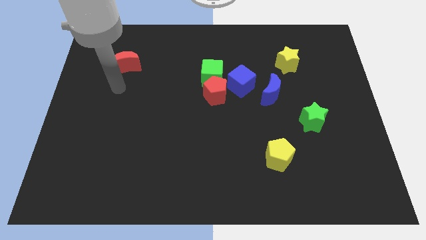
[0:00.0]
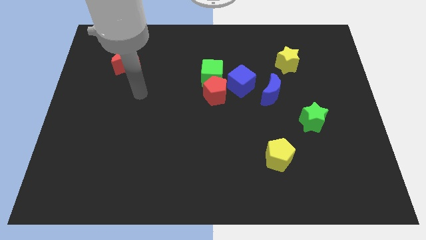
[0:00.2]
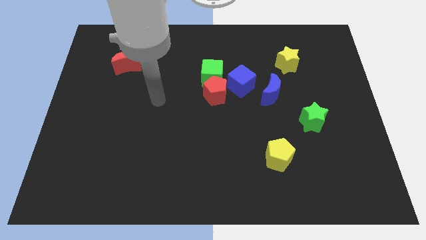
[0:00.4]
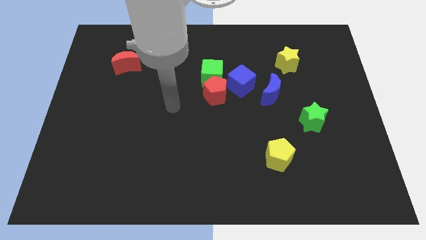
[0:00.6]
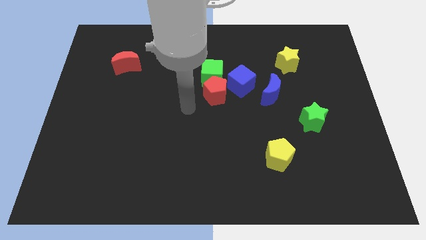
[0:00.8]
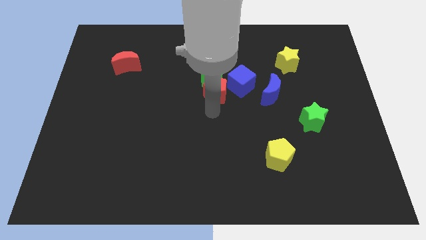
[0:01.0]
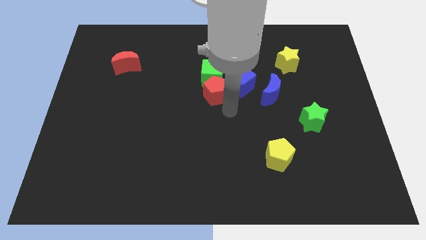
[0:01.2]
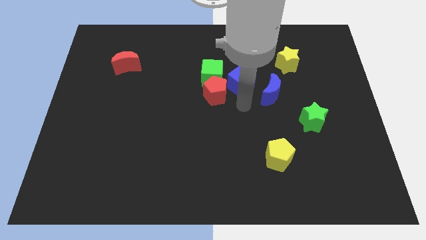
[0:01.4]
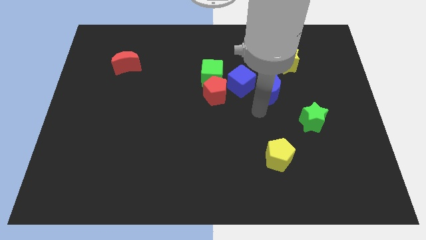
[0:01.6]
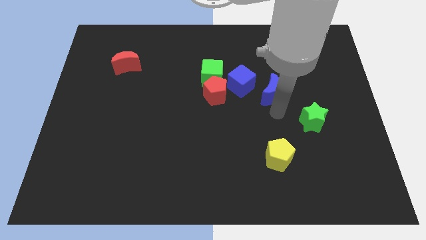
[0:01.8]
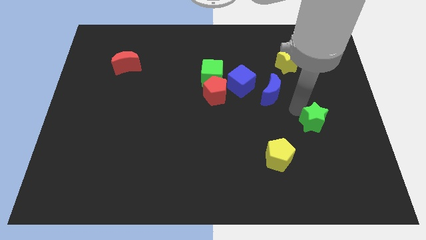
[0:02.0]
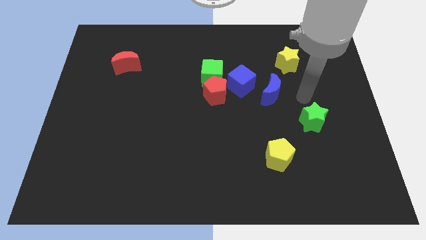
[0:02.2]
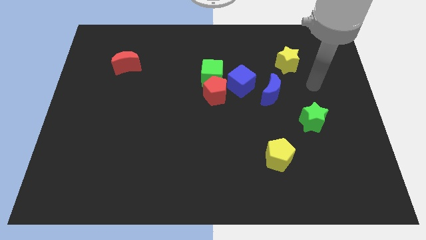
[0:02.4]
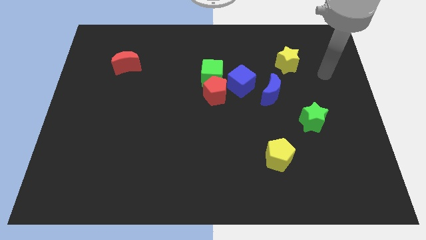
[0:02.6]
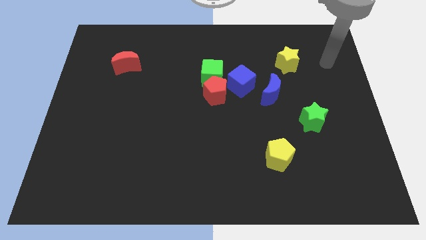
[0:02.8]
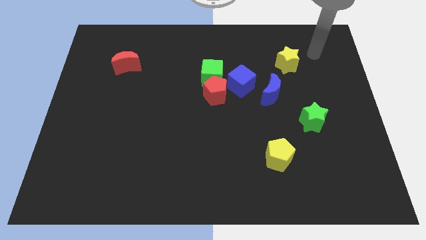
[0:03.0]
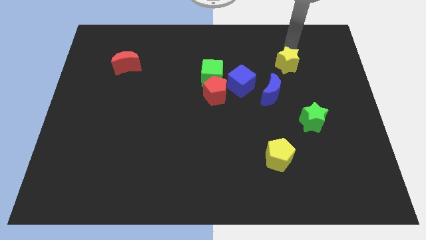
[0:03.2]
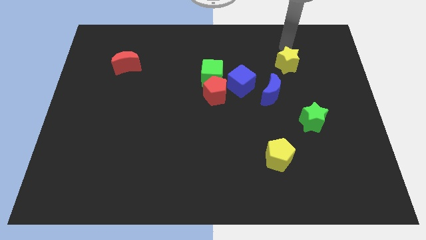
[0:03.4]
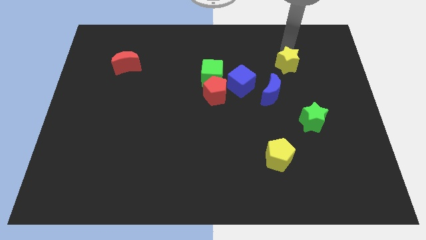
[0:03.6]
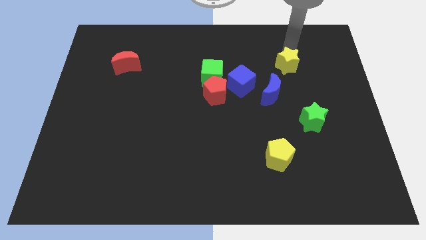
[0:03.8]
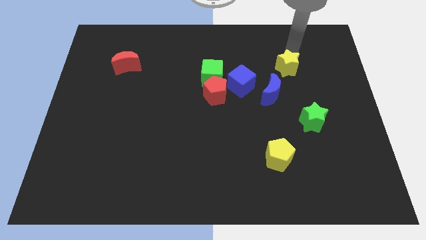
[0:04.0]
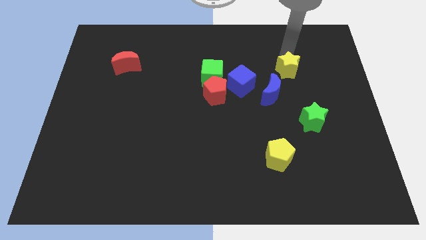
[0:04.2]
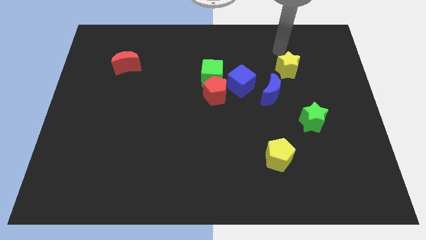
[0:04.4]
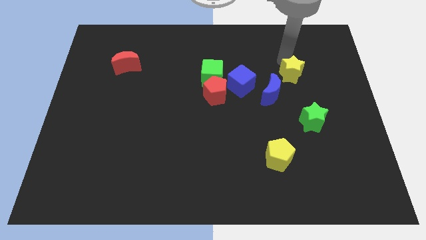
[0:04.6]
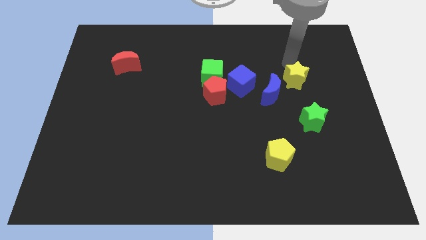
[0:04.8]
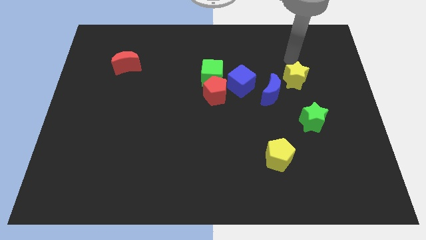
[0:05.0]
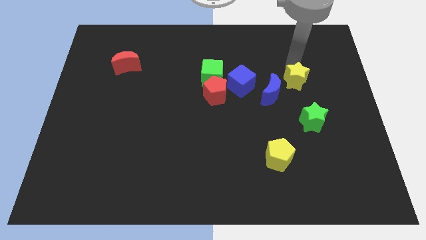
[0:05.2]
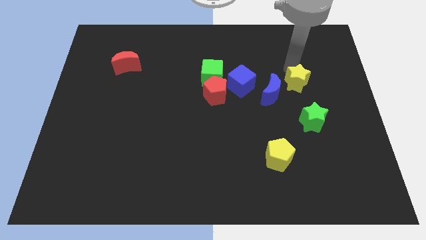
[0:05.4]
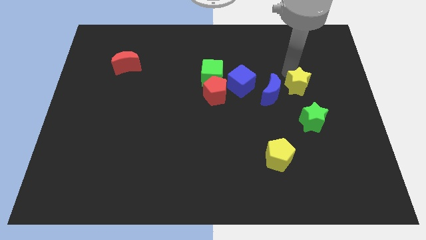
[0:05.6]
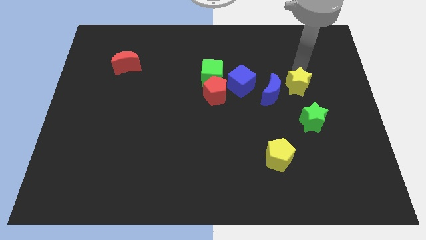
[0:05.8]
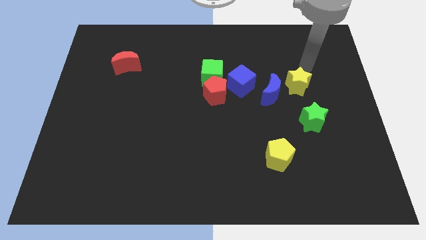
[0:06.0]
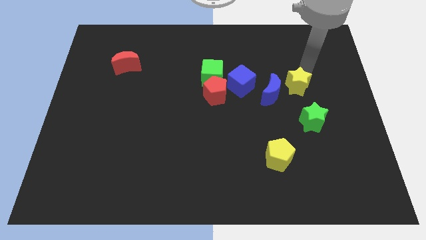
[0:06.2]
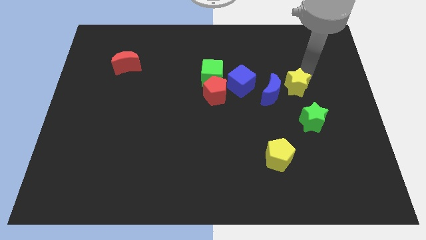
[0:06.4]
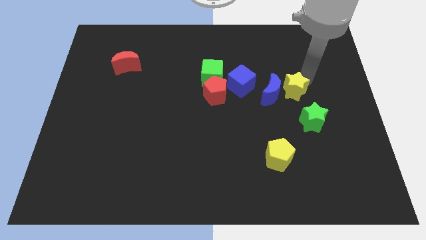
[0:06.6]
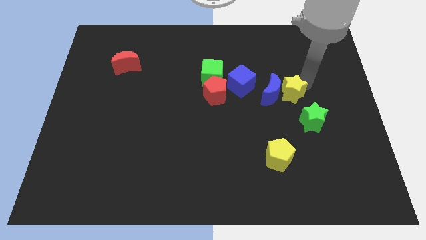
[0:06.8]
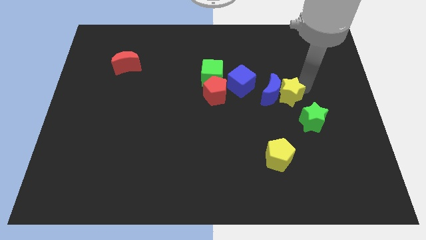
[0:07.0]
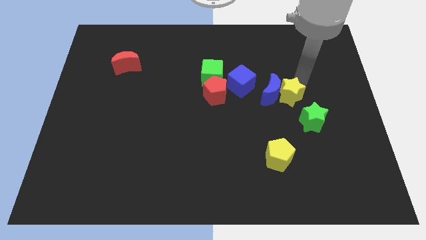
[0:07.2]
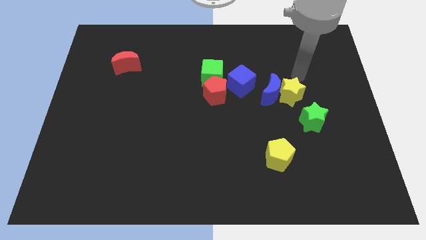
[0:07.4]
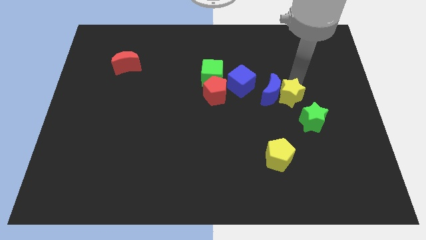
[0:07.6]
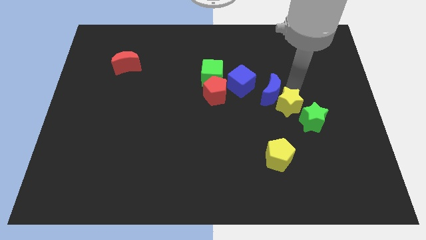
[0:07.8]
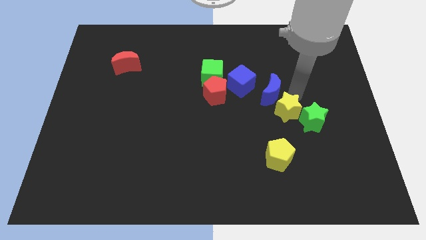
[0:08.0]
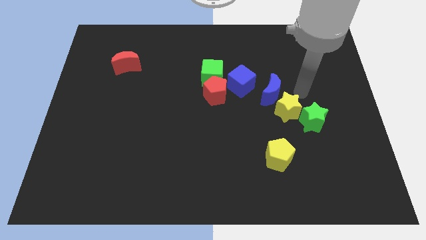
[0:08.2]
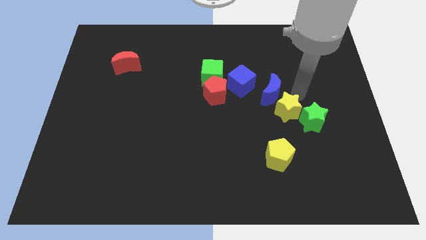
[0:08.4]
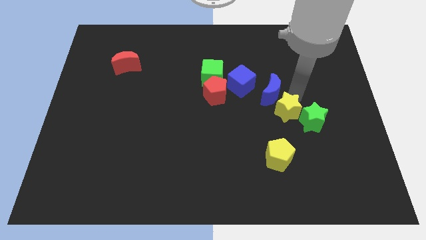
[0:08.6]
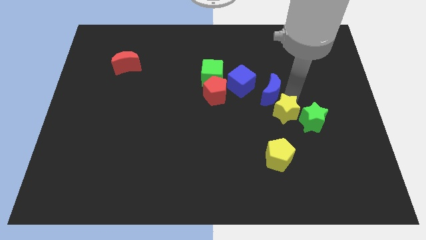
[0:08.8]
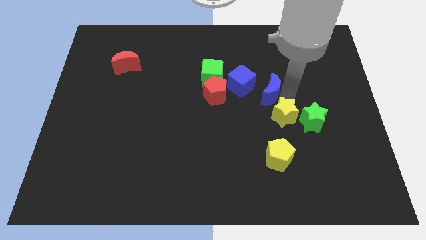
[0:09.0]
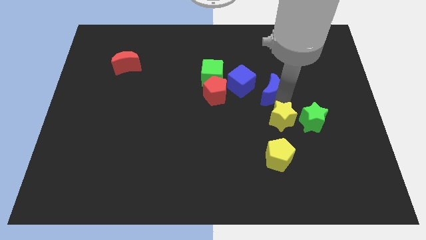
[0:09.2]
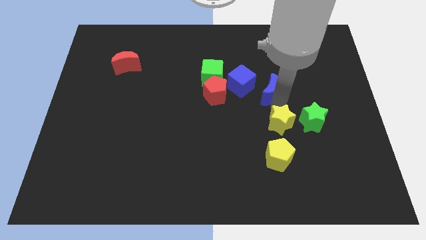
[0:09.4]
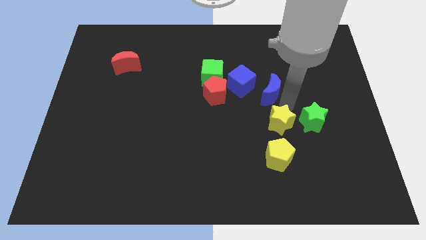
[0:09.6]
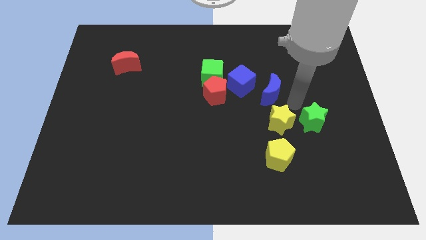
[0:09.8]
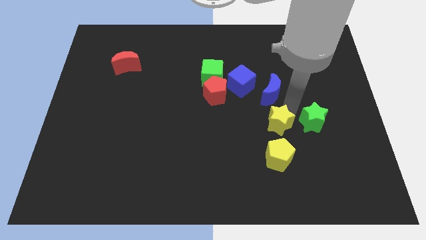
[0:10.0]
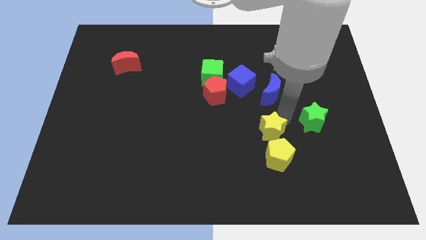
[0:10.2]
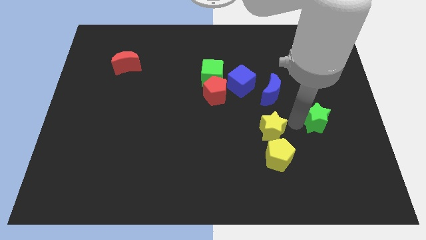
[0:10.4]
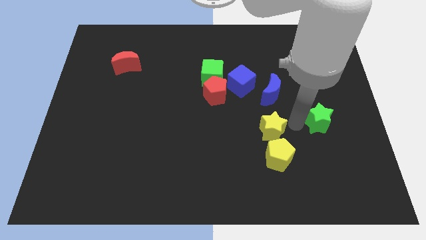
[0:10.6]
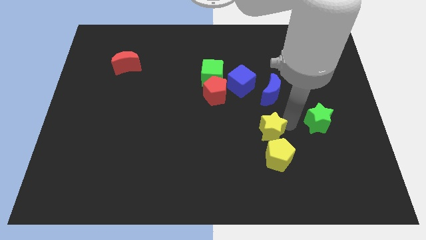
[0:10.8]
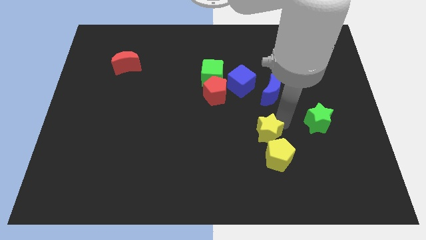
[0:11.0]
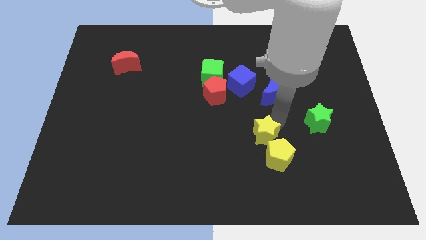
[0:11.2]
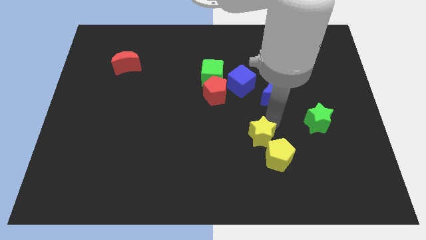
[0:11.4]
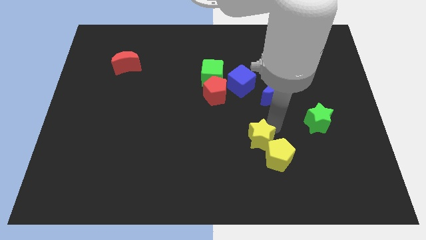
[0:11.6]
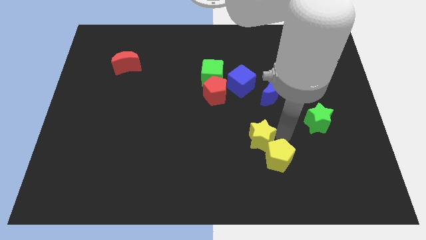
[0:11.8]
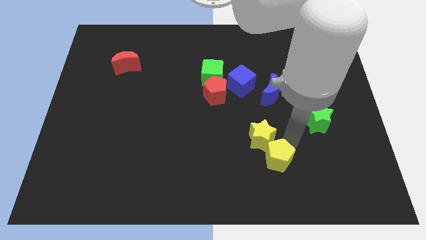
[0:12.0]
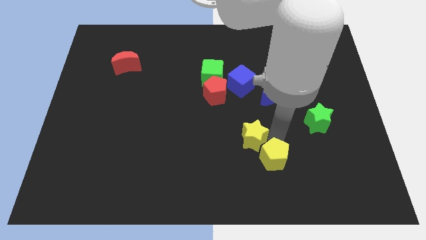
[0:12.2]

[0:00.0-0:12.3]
slide the yellow star downwards and then to the left

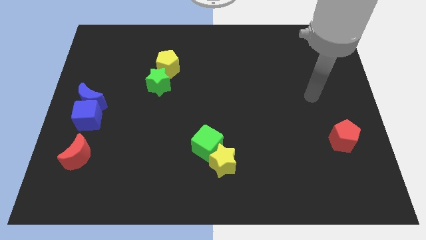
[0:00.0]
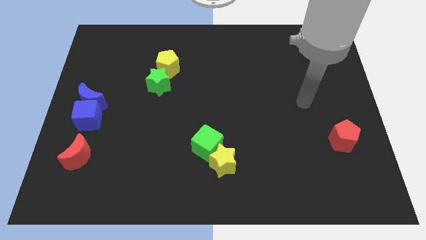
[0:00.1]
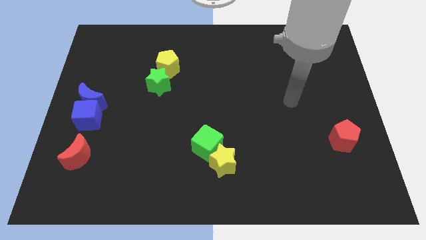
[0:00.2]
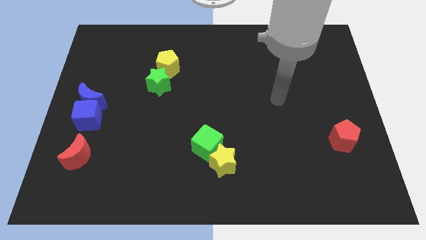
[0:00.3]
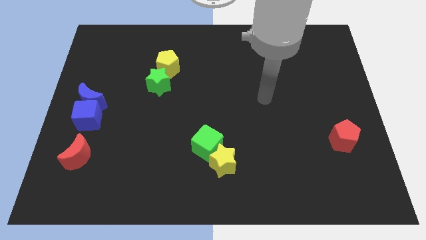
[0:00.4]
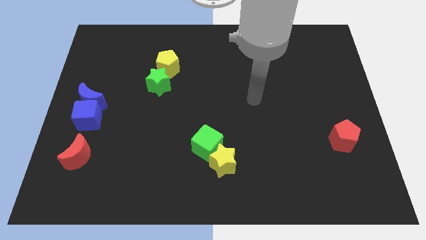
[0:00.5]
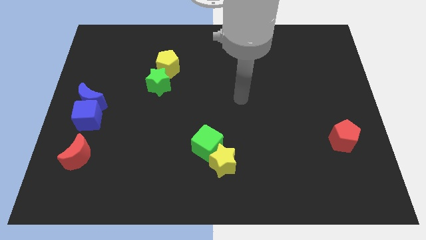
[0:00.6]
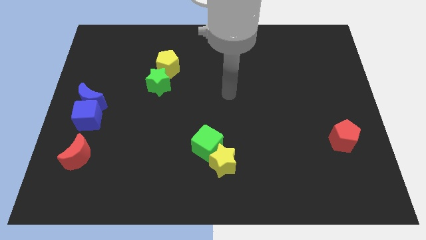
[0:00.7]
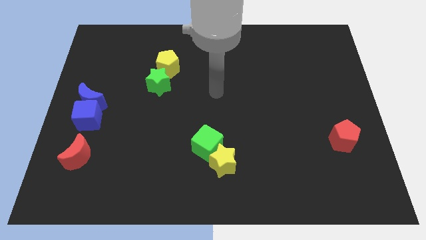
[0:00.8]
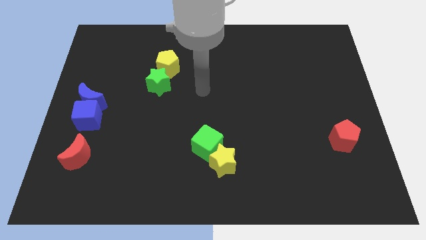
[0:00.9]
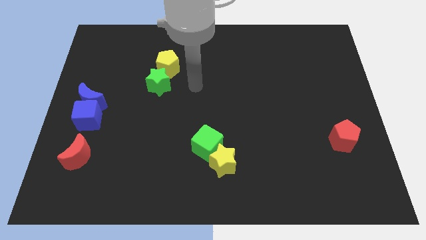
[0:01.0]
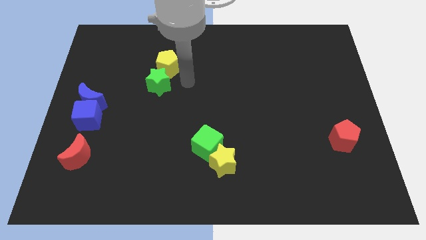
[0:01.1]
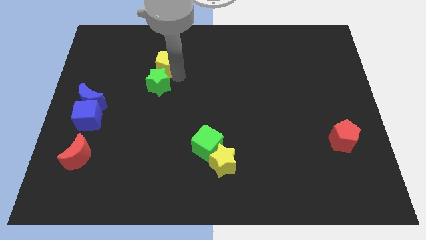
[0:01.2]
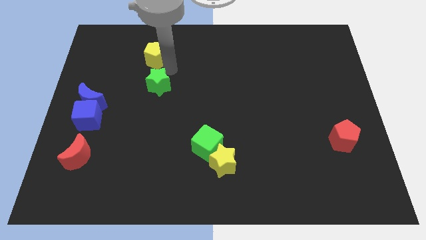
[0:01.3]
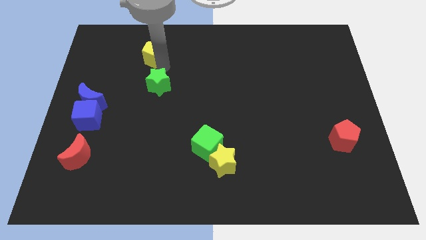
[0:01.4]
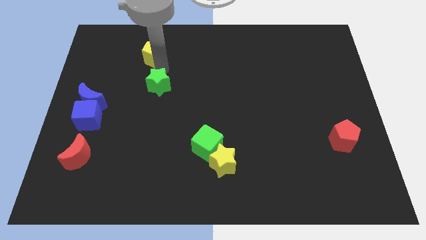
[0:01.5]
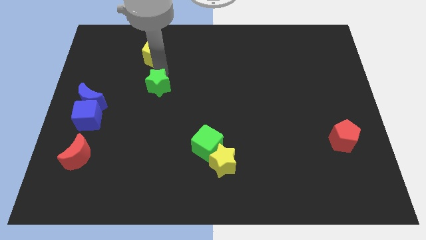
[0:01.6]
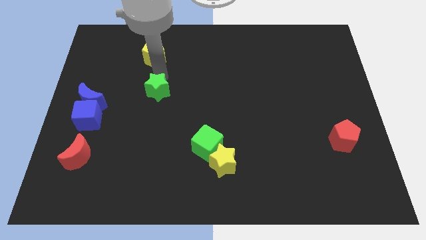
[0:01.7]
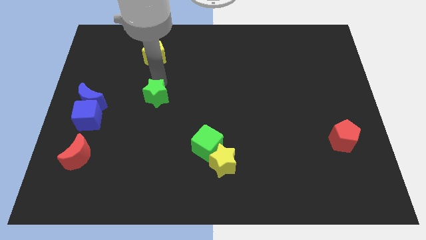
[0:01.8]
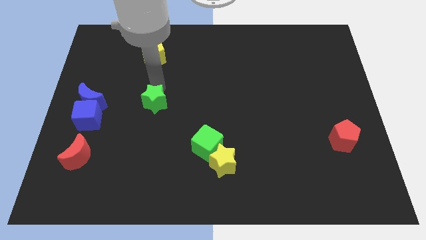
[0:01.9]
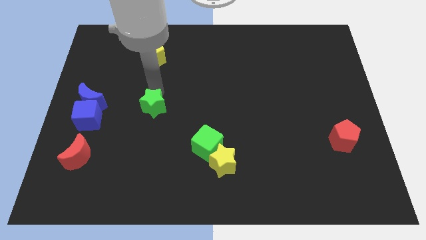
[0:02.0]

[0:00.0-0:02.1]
slightly move the green star downwards
